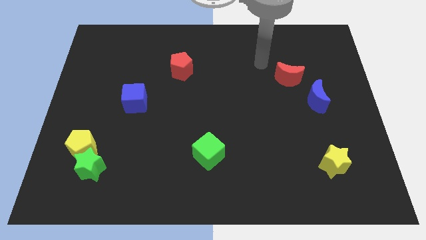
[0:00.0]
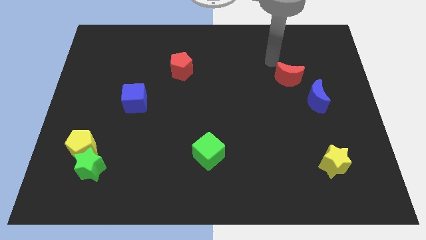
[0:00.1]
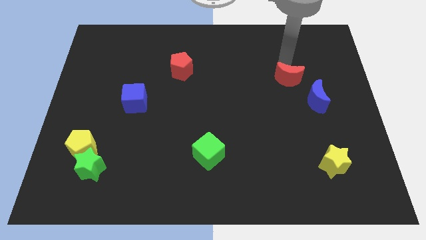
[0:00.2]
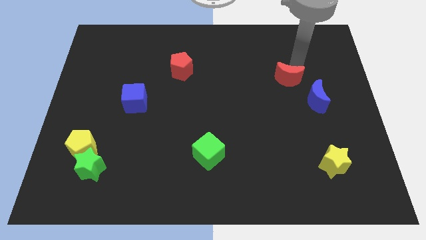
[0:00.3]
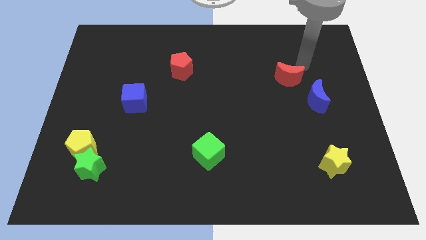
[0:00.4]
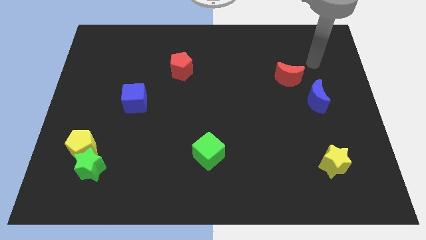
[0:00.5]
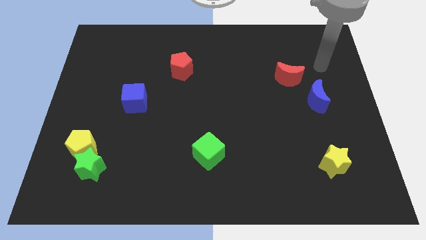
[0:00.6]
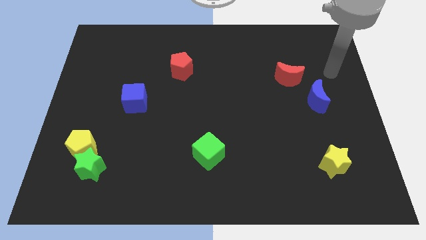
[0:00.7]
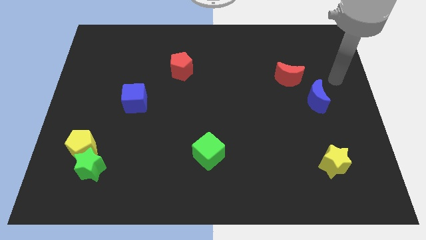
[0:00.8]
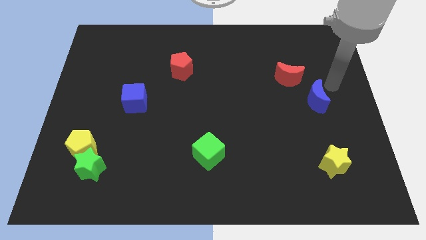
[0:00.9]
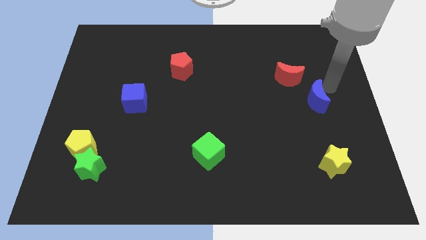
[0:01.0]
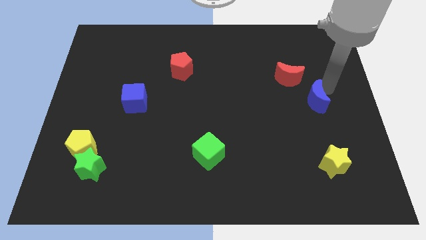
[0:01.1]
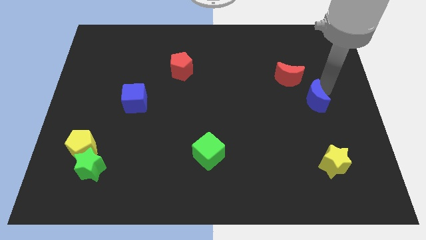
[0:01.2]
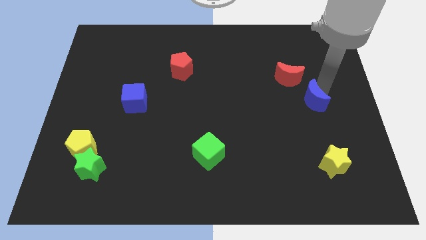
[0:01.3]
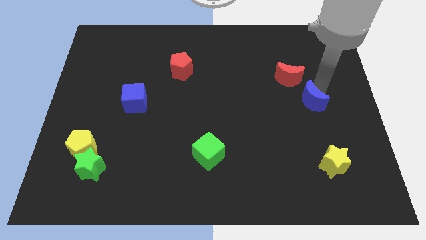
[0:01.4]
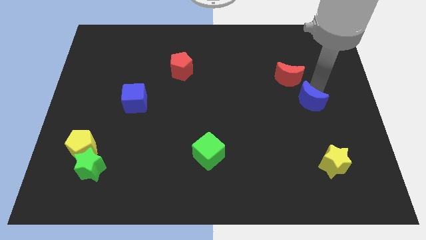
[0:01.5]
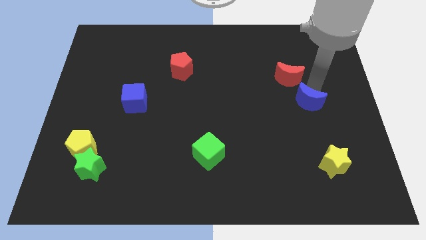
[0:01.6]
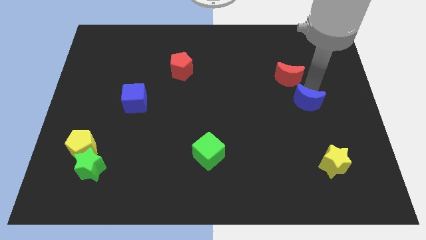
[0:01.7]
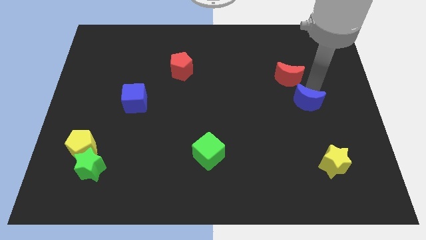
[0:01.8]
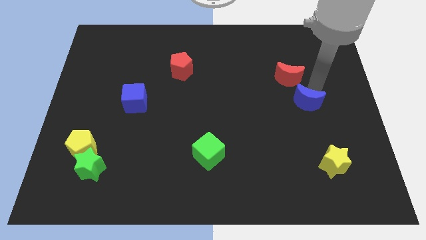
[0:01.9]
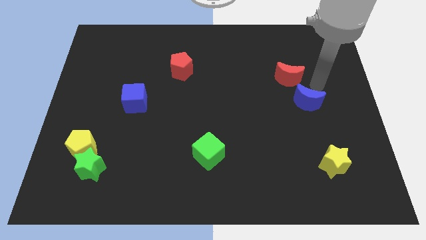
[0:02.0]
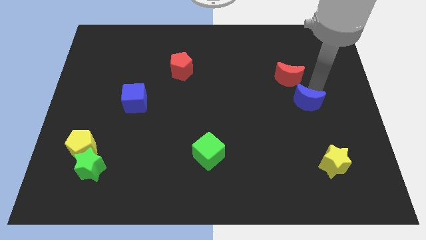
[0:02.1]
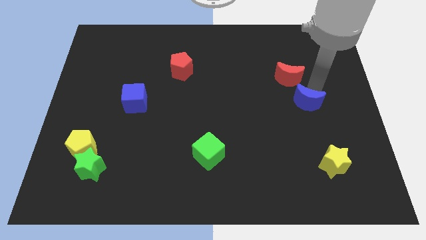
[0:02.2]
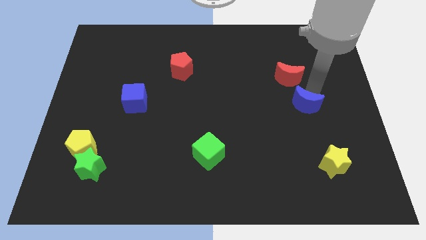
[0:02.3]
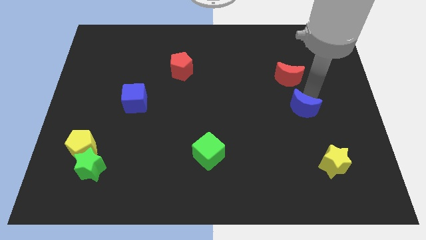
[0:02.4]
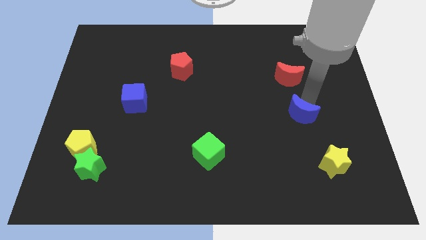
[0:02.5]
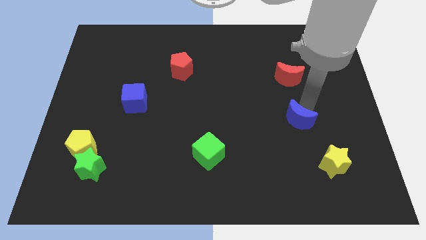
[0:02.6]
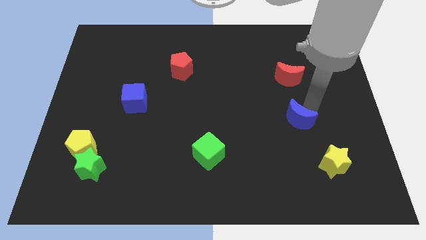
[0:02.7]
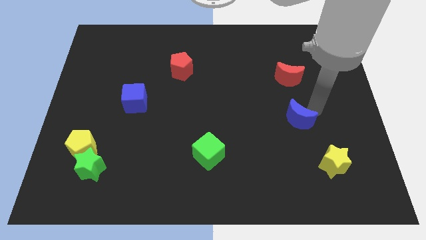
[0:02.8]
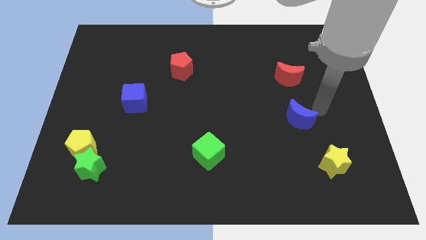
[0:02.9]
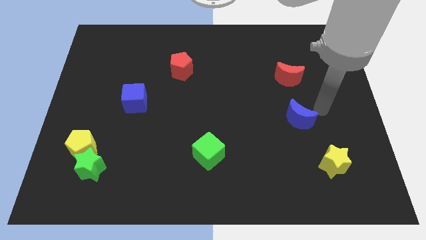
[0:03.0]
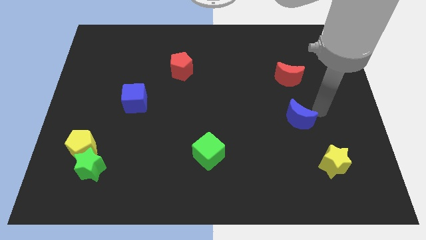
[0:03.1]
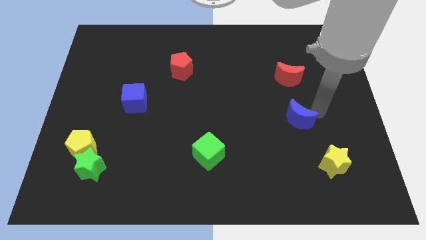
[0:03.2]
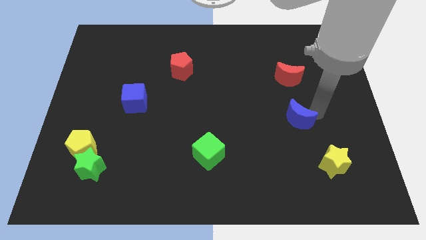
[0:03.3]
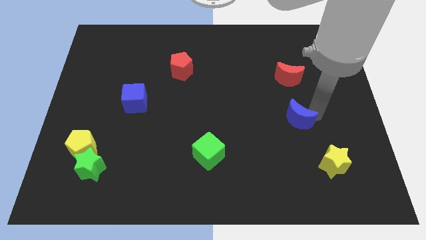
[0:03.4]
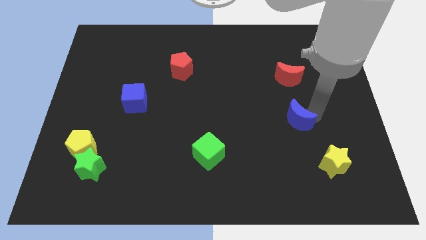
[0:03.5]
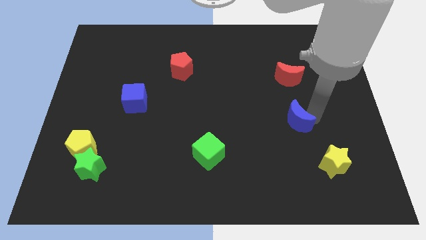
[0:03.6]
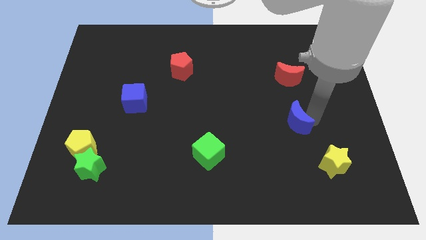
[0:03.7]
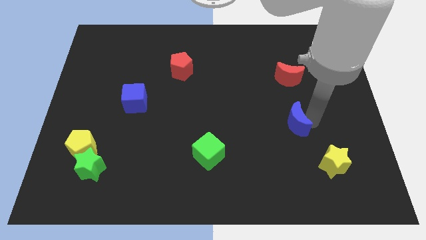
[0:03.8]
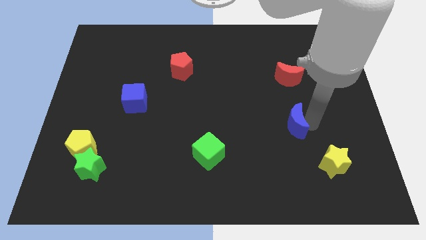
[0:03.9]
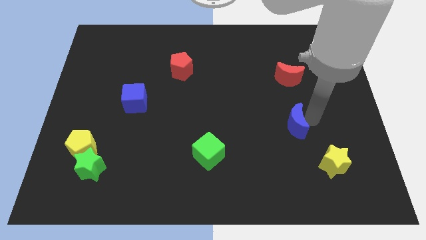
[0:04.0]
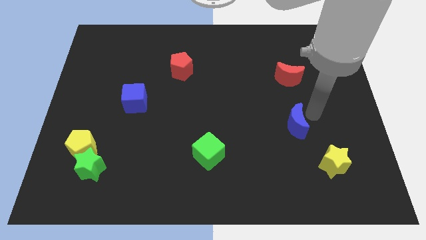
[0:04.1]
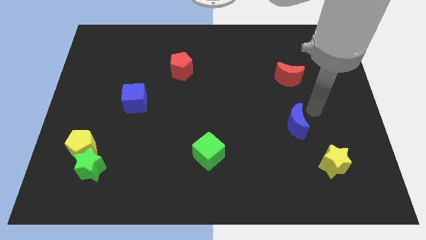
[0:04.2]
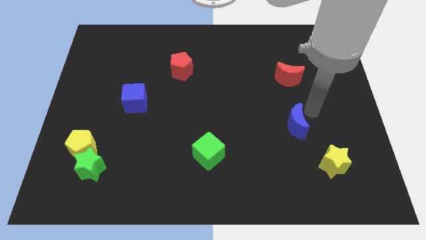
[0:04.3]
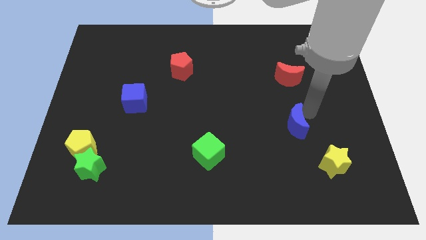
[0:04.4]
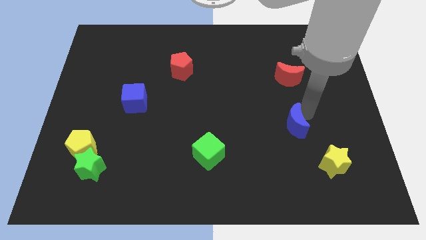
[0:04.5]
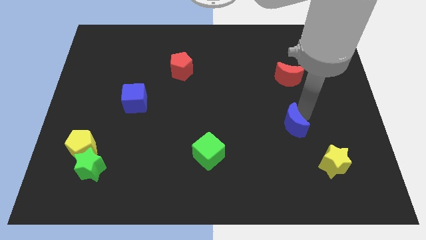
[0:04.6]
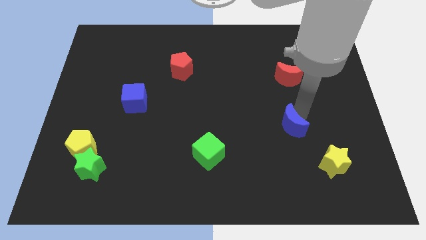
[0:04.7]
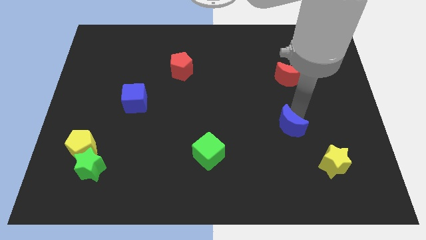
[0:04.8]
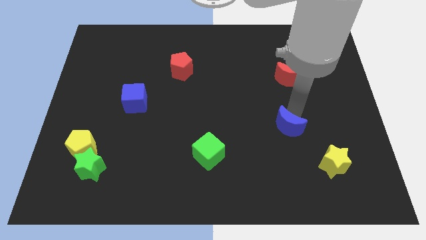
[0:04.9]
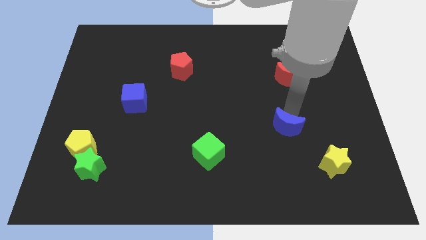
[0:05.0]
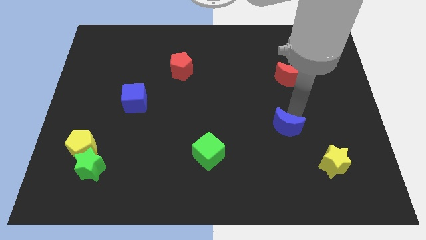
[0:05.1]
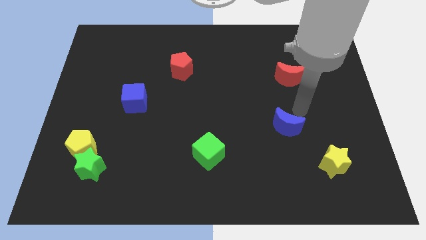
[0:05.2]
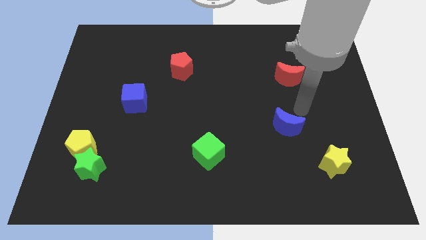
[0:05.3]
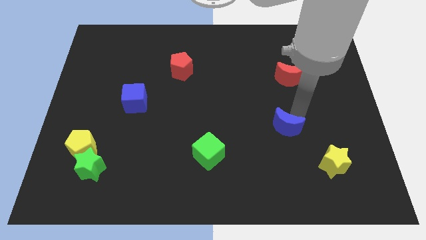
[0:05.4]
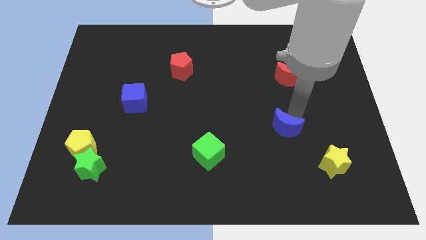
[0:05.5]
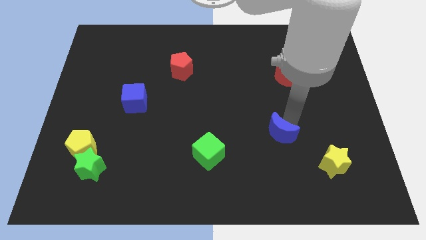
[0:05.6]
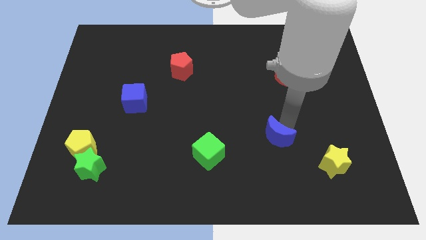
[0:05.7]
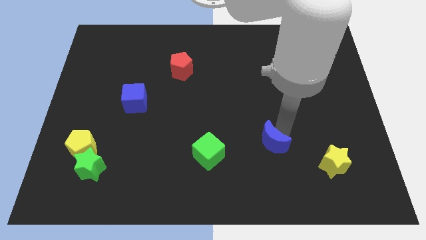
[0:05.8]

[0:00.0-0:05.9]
push the blue moon to the right of the green cube
